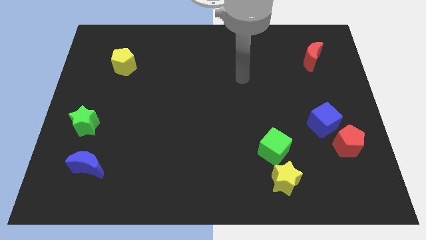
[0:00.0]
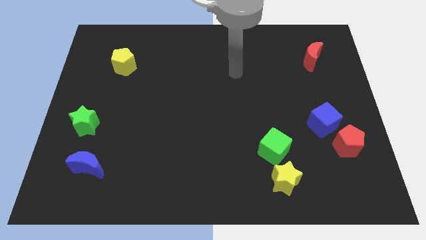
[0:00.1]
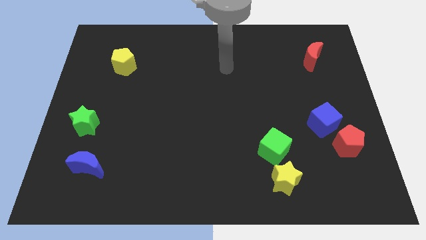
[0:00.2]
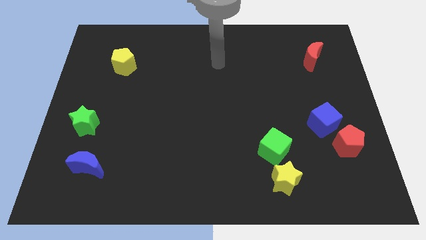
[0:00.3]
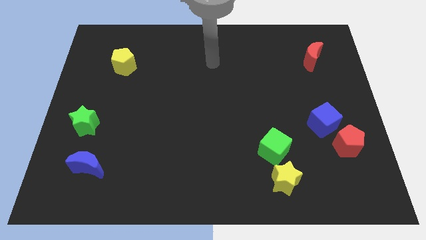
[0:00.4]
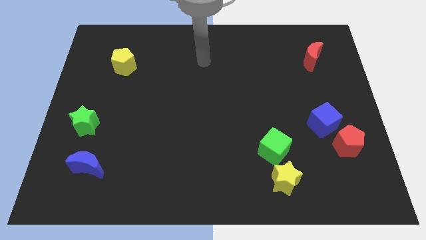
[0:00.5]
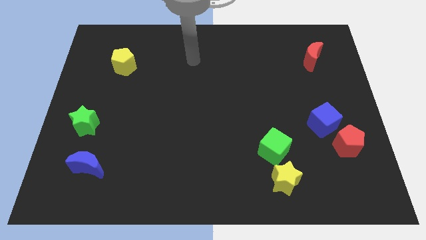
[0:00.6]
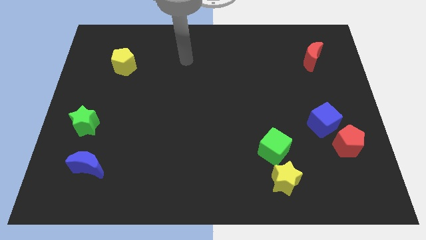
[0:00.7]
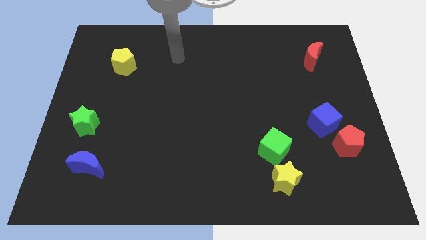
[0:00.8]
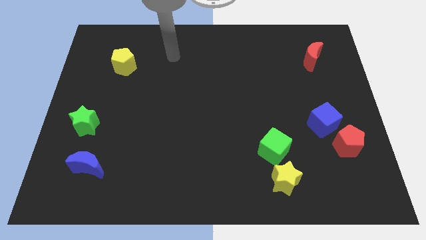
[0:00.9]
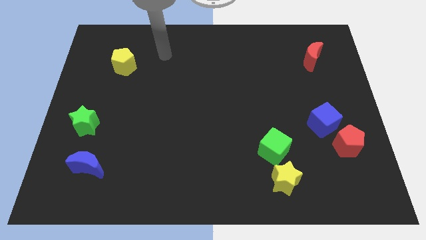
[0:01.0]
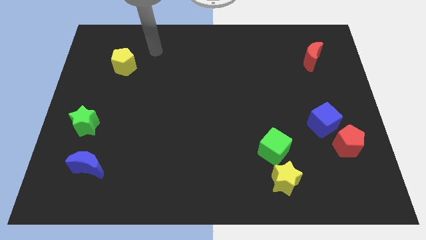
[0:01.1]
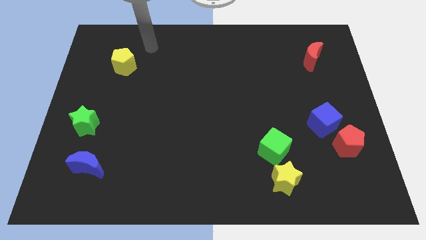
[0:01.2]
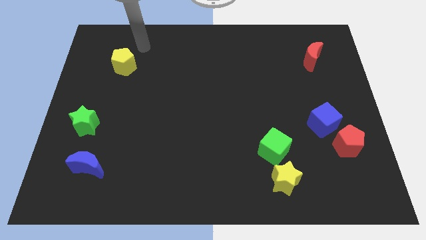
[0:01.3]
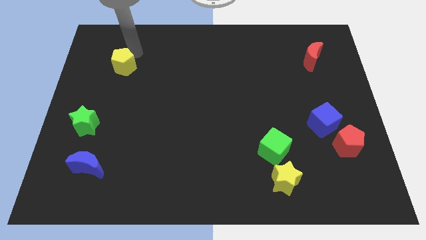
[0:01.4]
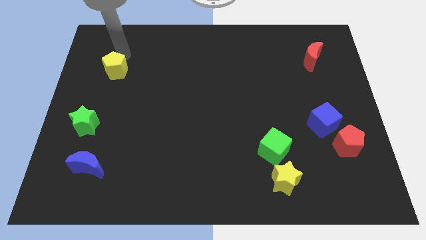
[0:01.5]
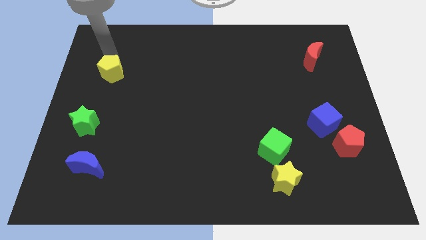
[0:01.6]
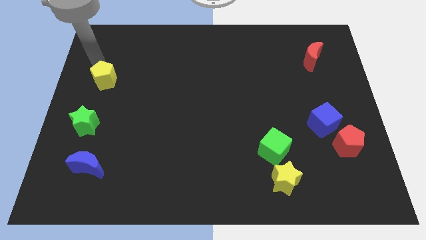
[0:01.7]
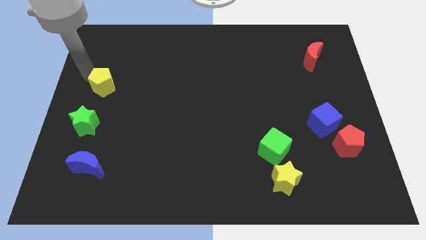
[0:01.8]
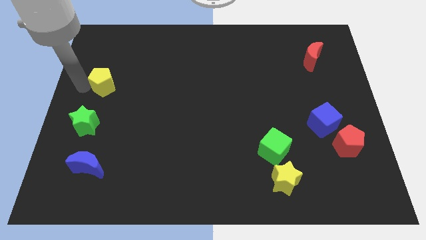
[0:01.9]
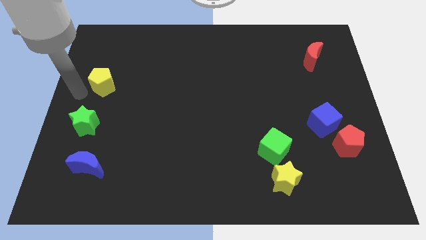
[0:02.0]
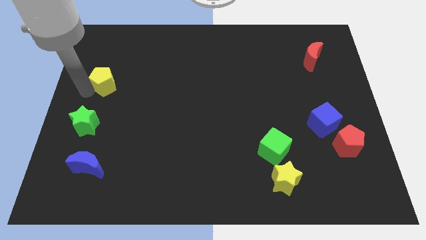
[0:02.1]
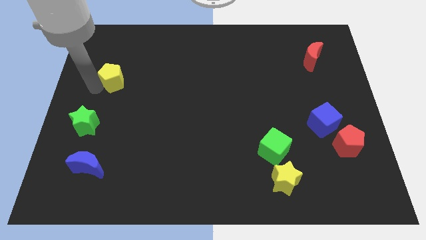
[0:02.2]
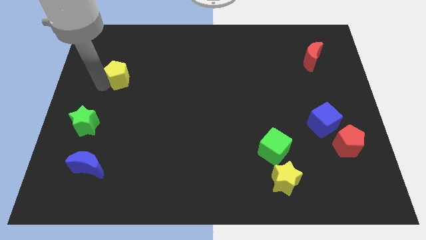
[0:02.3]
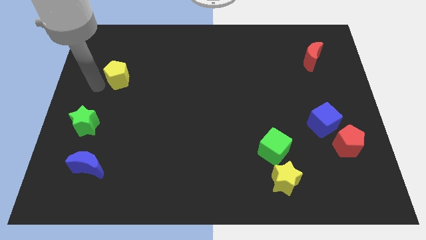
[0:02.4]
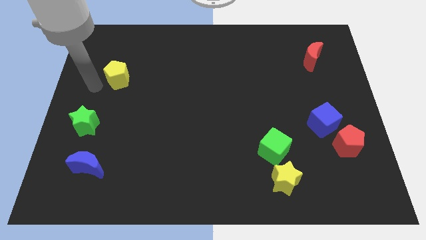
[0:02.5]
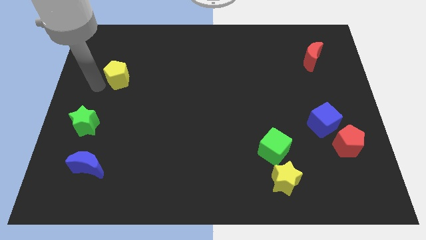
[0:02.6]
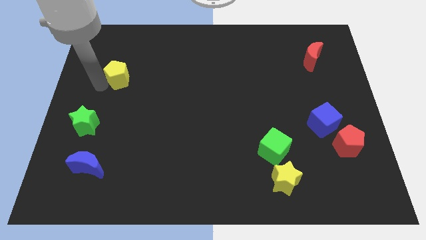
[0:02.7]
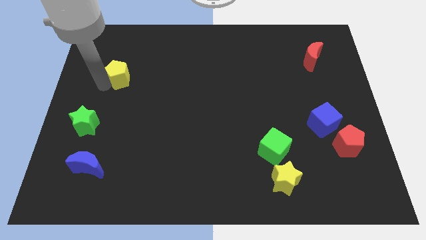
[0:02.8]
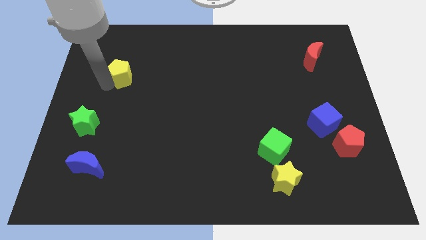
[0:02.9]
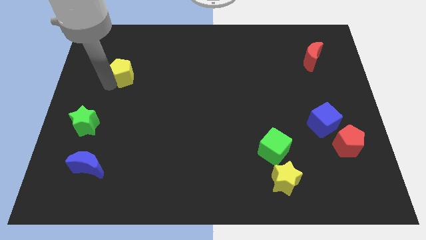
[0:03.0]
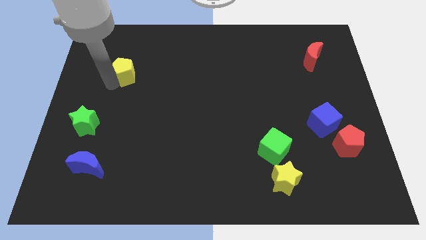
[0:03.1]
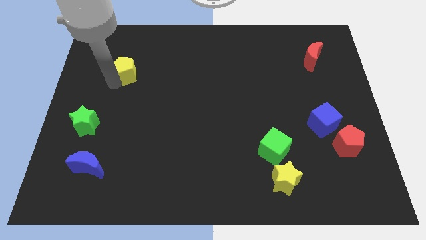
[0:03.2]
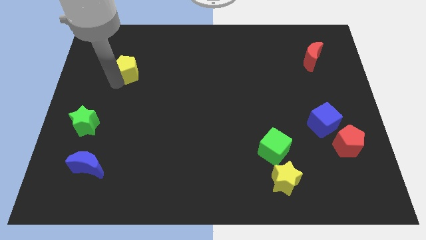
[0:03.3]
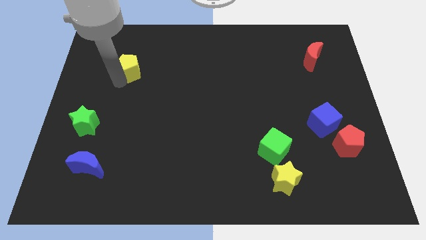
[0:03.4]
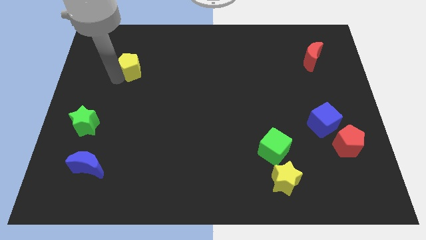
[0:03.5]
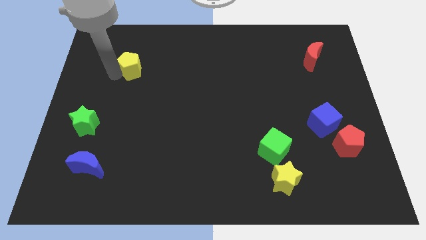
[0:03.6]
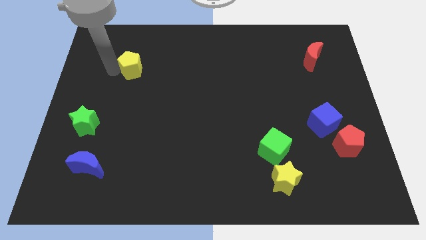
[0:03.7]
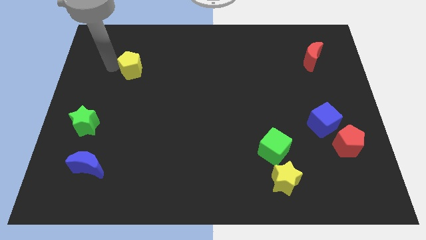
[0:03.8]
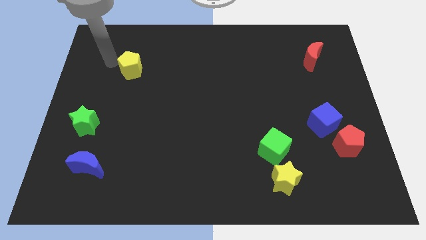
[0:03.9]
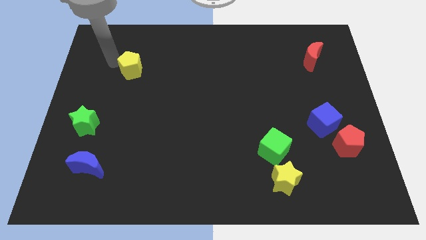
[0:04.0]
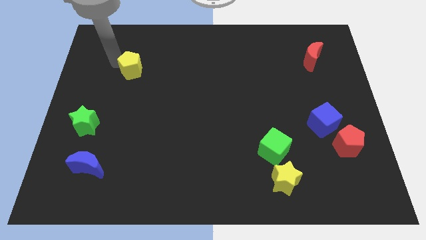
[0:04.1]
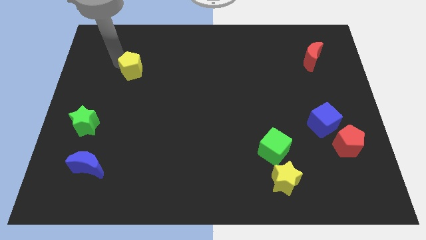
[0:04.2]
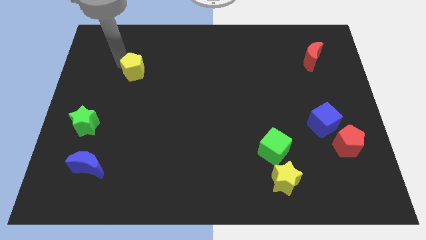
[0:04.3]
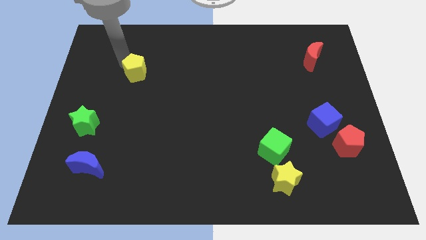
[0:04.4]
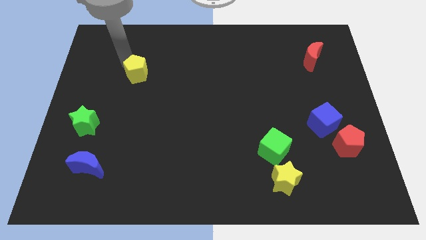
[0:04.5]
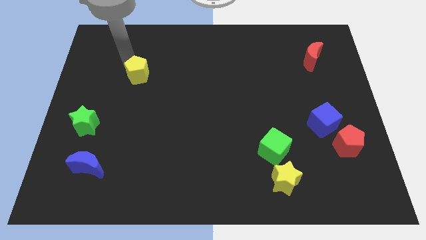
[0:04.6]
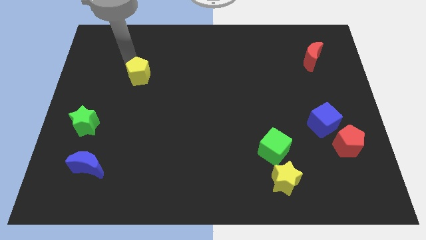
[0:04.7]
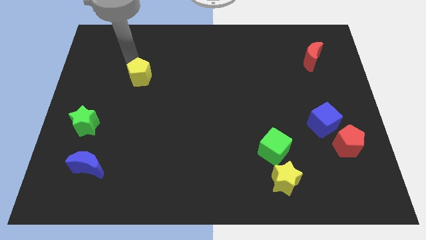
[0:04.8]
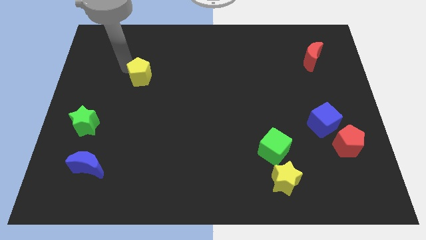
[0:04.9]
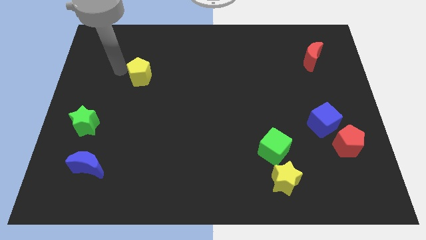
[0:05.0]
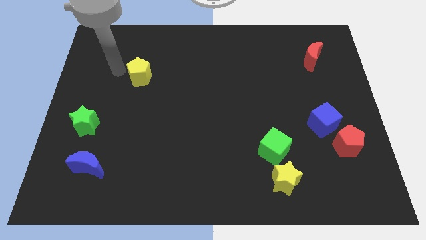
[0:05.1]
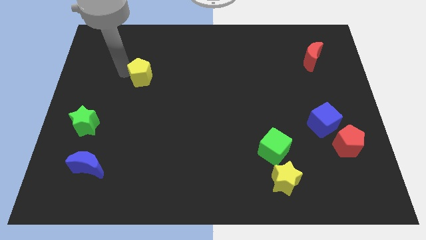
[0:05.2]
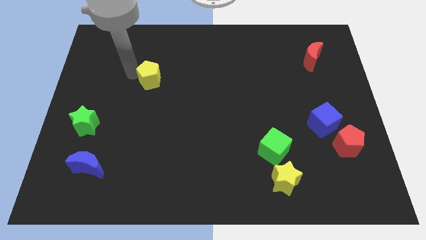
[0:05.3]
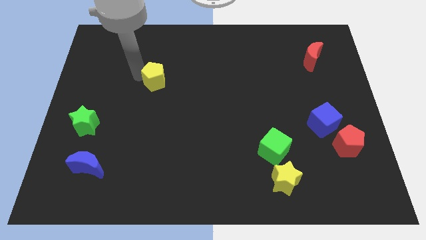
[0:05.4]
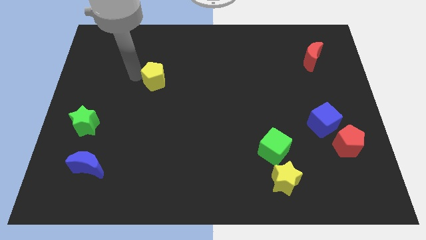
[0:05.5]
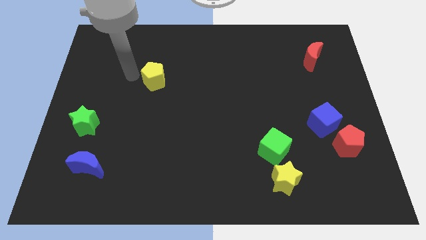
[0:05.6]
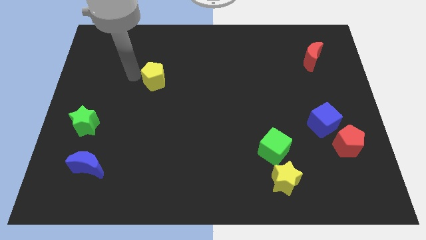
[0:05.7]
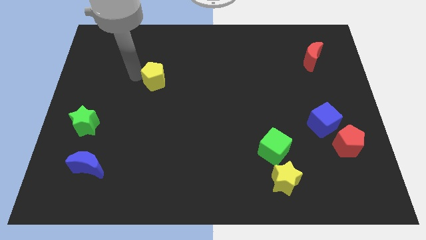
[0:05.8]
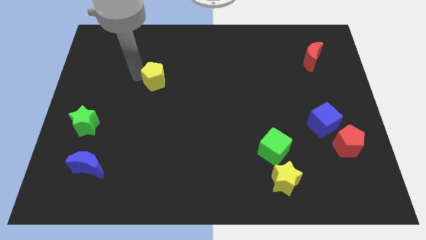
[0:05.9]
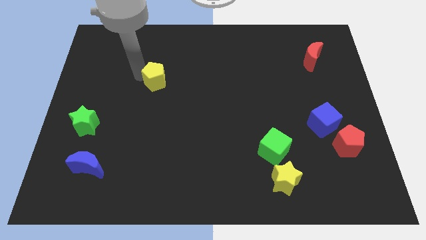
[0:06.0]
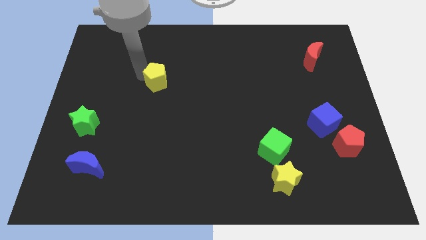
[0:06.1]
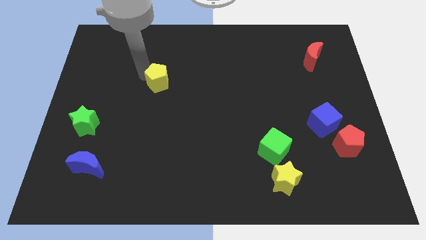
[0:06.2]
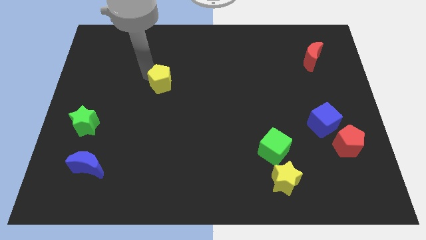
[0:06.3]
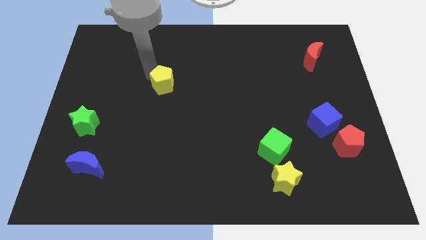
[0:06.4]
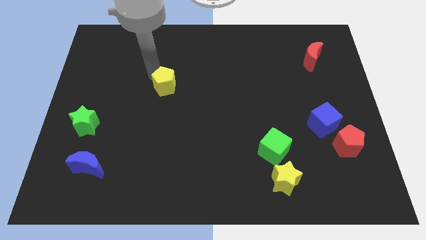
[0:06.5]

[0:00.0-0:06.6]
put the yellow pentagon to the middle
